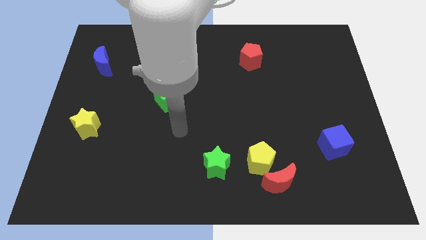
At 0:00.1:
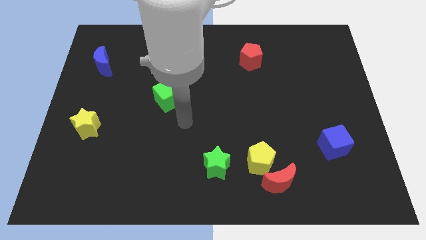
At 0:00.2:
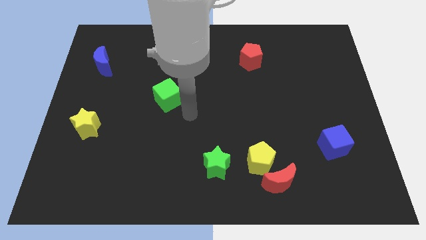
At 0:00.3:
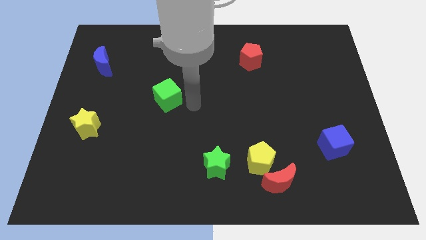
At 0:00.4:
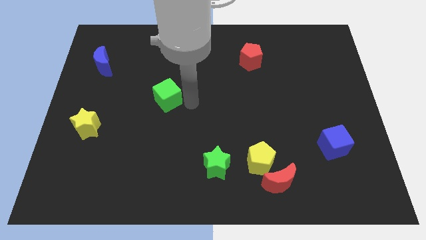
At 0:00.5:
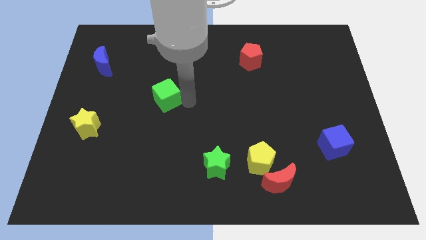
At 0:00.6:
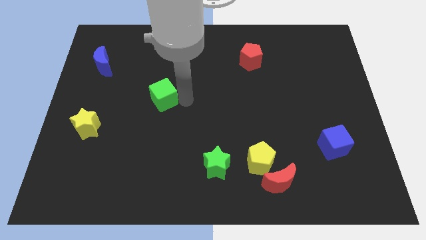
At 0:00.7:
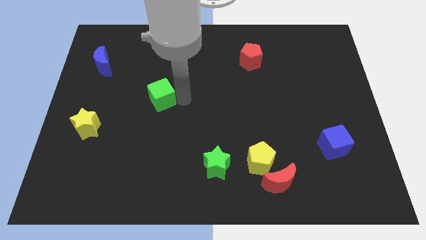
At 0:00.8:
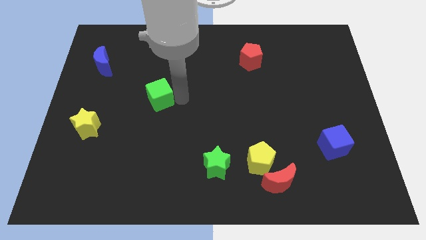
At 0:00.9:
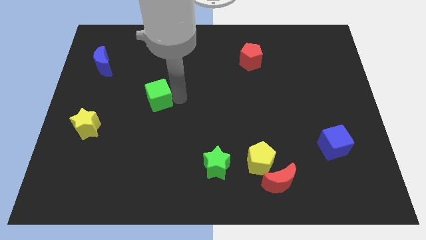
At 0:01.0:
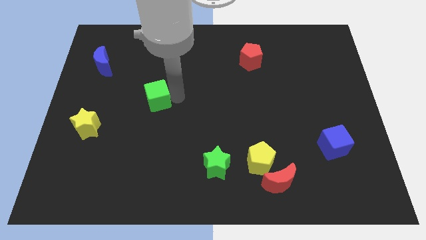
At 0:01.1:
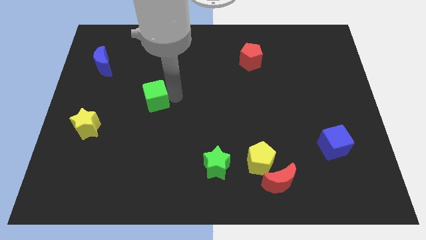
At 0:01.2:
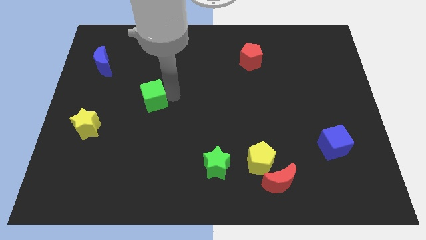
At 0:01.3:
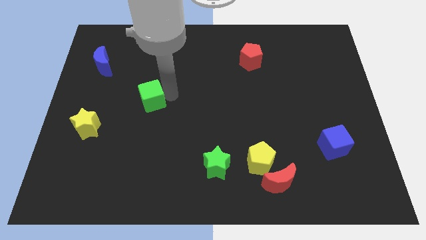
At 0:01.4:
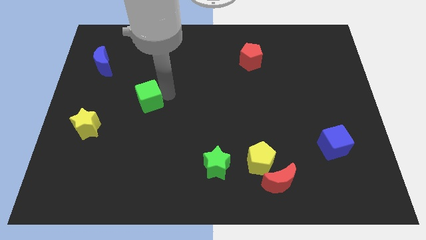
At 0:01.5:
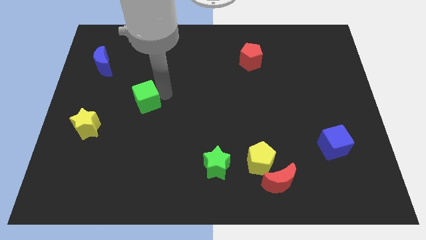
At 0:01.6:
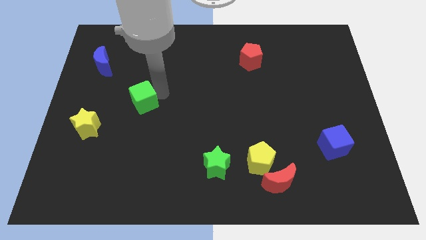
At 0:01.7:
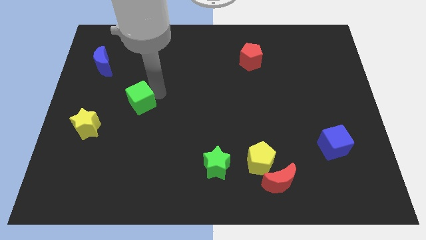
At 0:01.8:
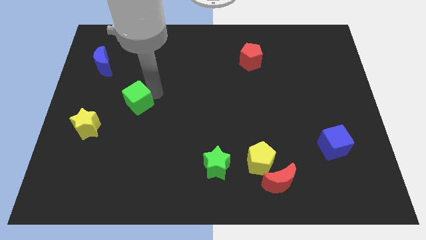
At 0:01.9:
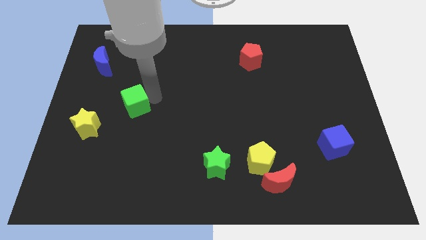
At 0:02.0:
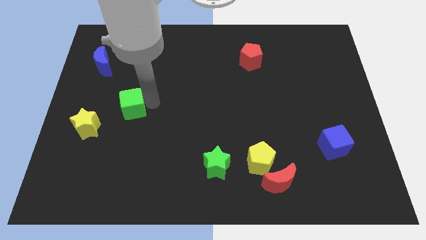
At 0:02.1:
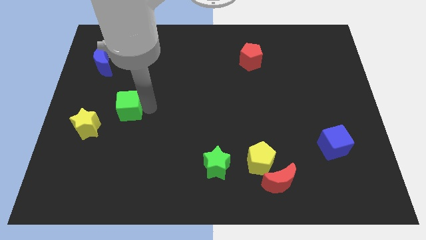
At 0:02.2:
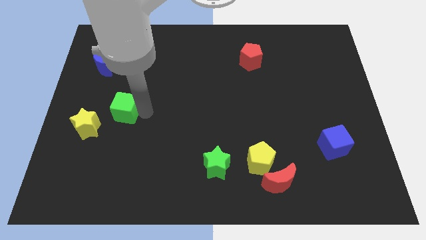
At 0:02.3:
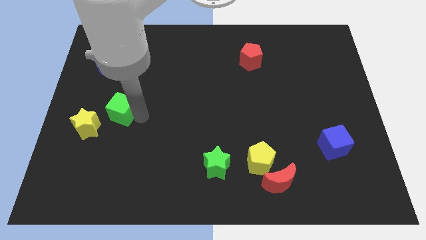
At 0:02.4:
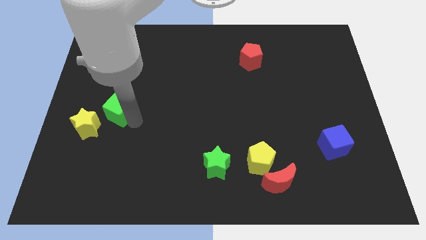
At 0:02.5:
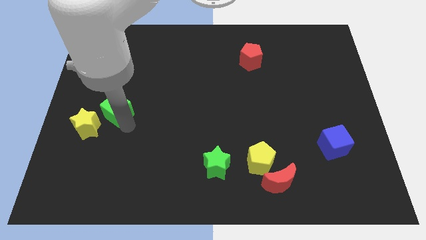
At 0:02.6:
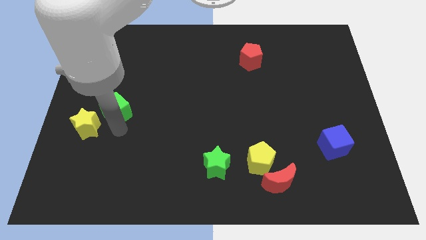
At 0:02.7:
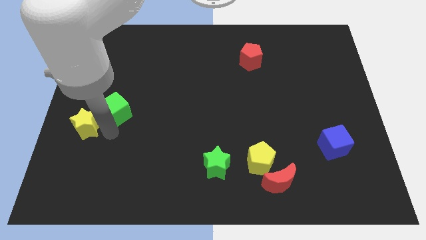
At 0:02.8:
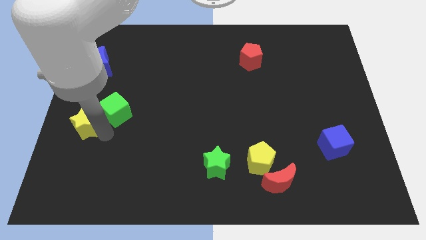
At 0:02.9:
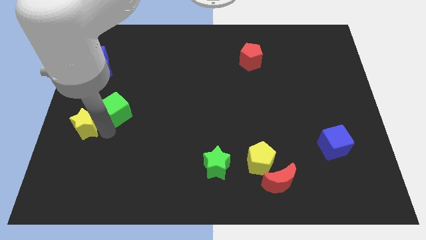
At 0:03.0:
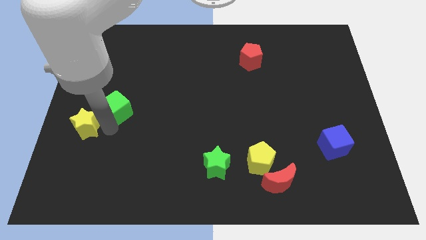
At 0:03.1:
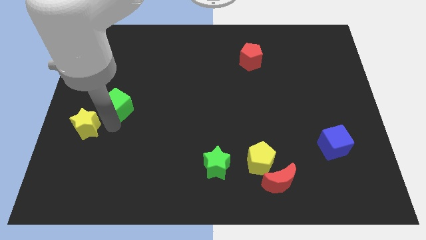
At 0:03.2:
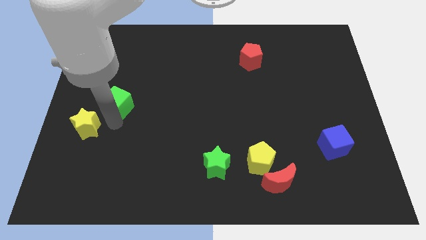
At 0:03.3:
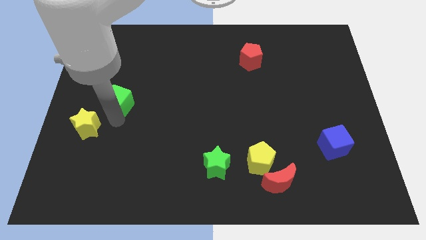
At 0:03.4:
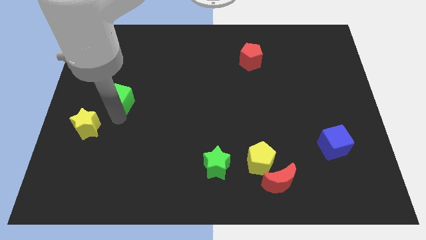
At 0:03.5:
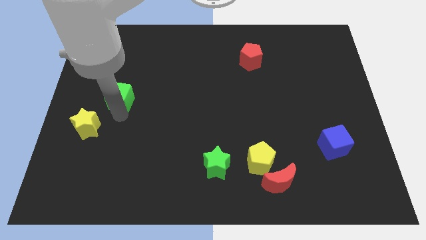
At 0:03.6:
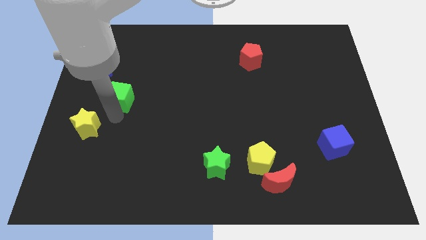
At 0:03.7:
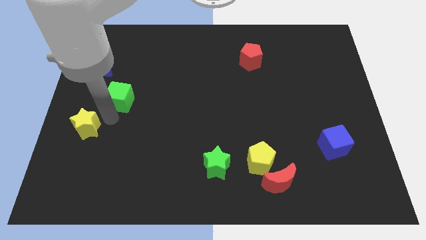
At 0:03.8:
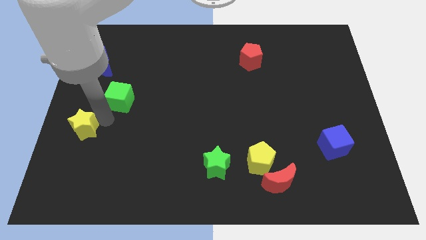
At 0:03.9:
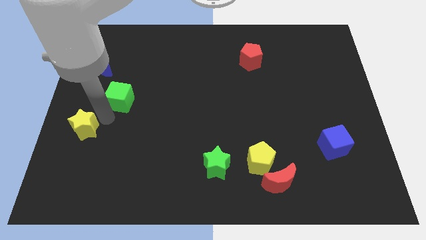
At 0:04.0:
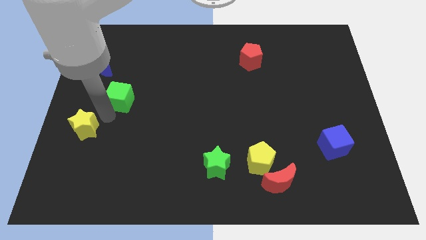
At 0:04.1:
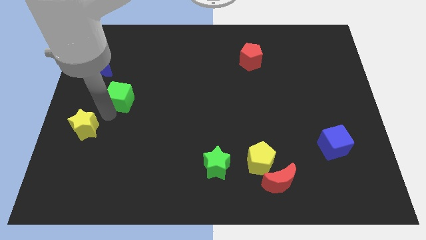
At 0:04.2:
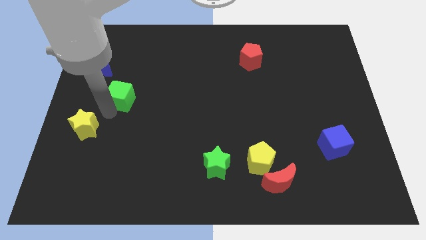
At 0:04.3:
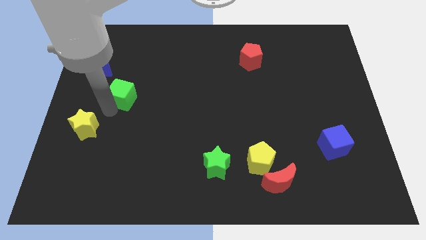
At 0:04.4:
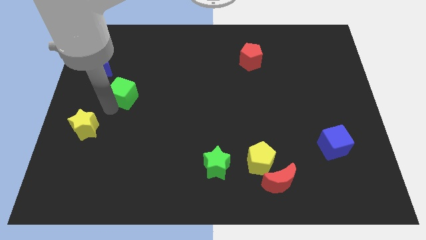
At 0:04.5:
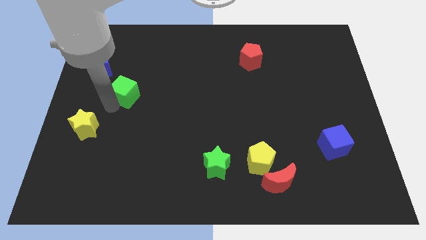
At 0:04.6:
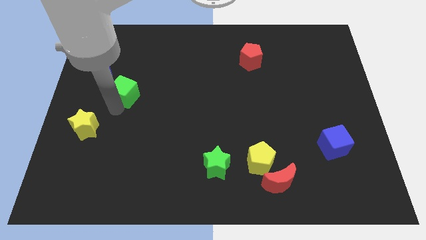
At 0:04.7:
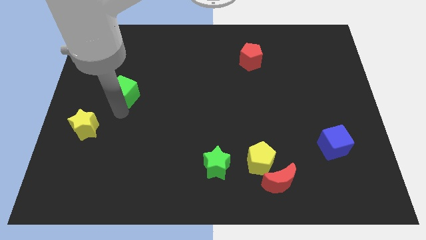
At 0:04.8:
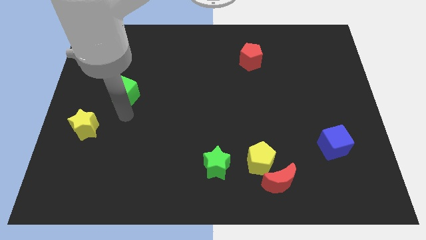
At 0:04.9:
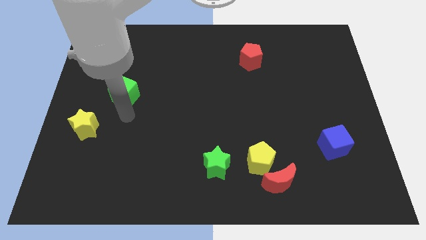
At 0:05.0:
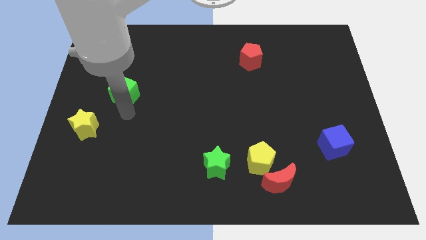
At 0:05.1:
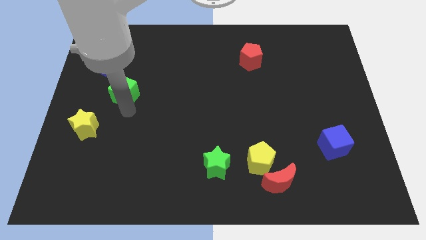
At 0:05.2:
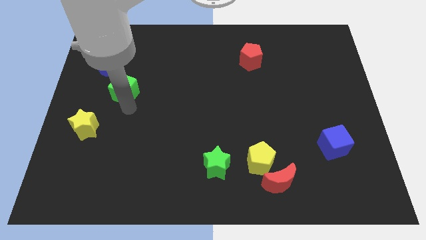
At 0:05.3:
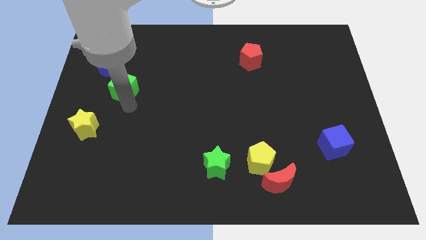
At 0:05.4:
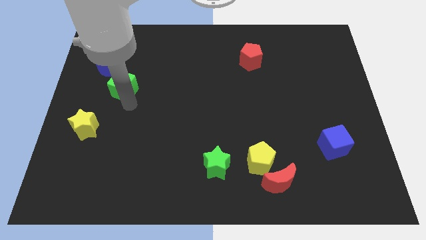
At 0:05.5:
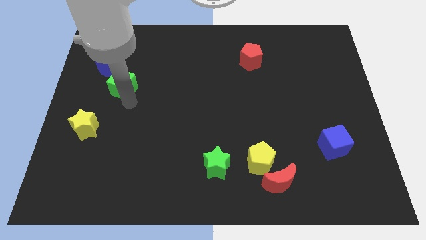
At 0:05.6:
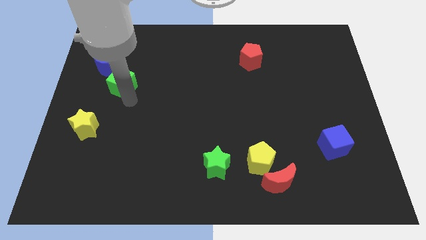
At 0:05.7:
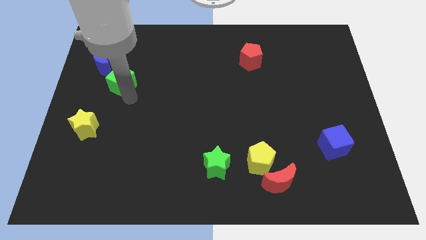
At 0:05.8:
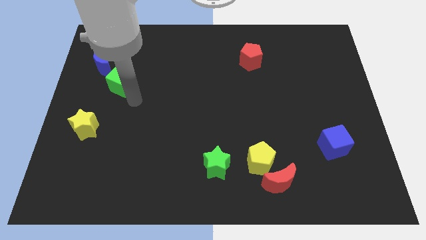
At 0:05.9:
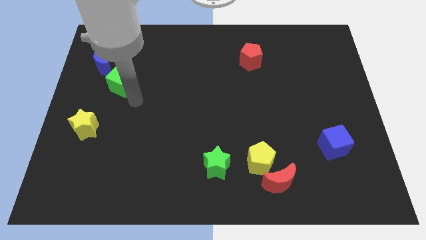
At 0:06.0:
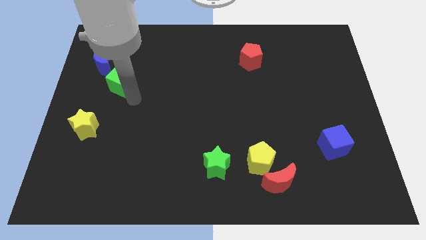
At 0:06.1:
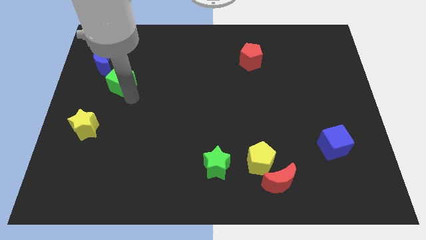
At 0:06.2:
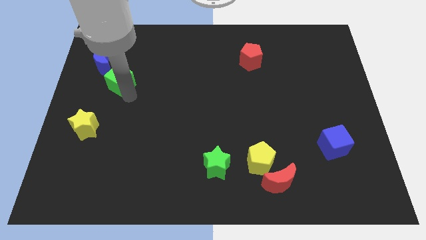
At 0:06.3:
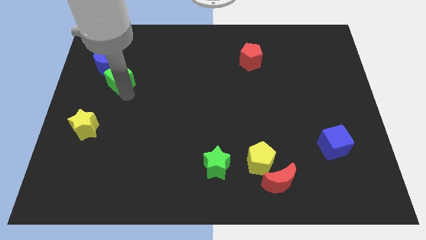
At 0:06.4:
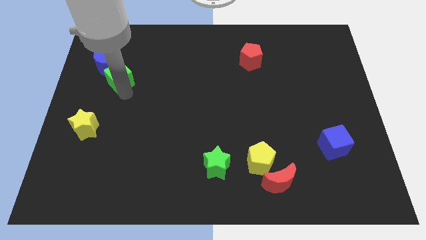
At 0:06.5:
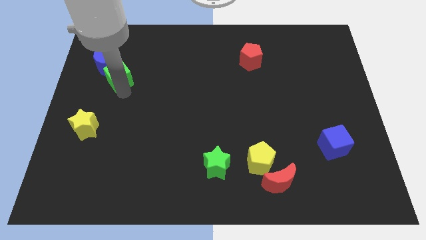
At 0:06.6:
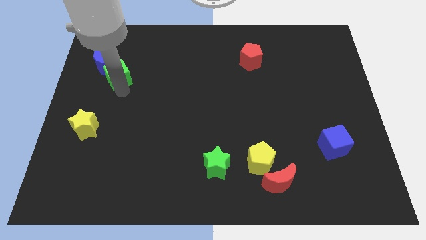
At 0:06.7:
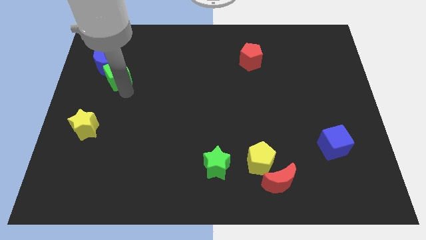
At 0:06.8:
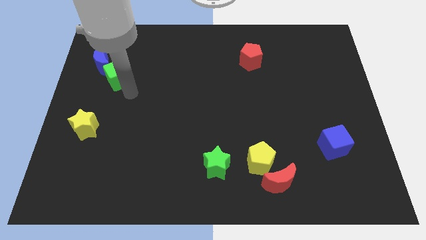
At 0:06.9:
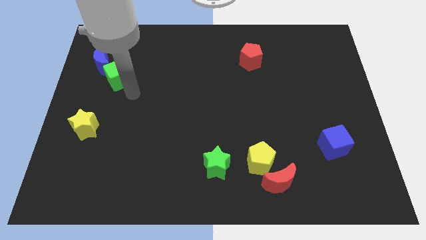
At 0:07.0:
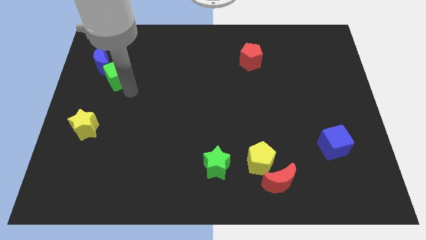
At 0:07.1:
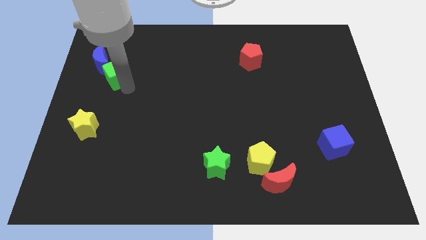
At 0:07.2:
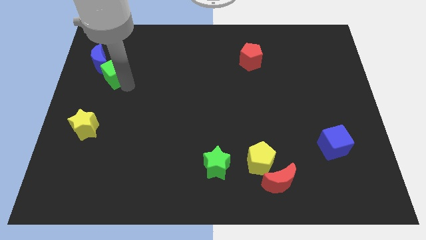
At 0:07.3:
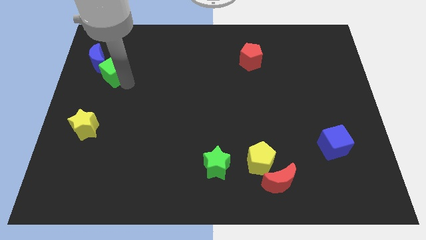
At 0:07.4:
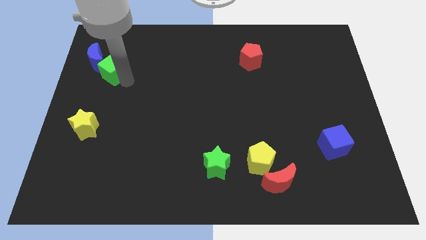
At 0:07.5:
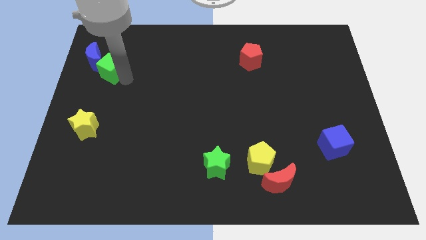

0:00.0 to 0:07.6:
move the green cube towards the blue moon
